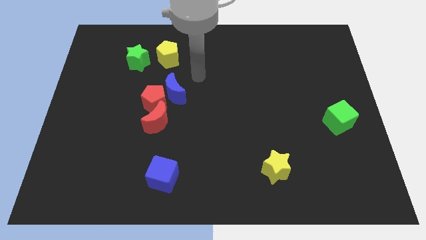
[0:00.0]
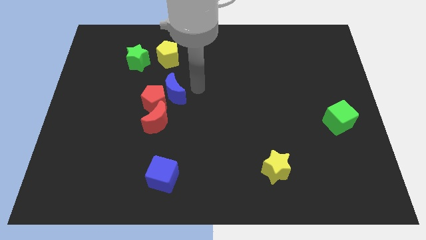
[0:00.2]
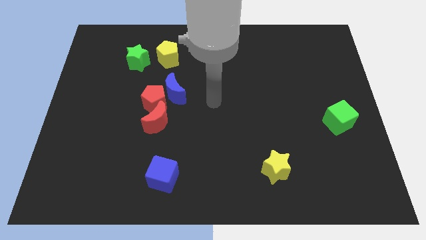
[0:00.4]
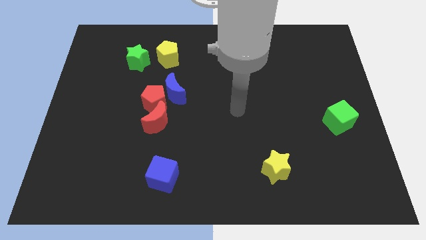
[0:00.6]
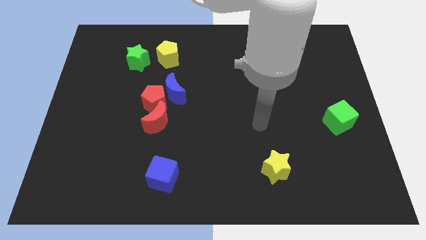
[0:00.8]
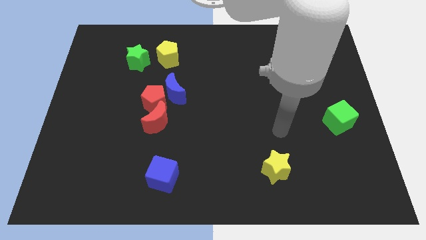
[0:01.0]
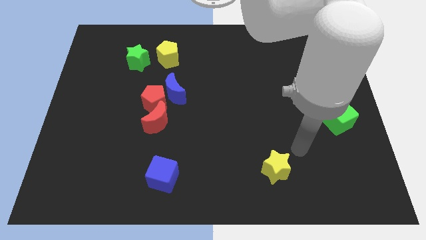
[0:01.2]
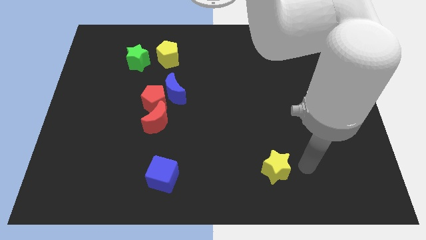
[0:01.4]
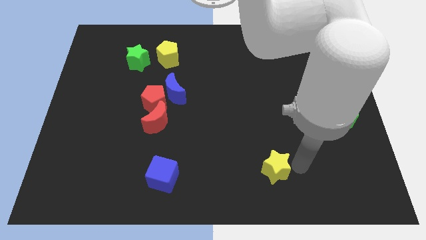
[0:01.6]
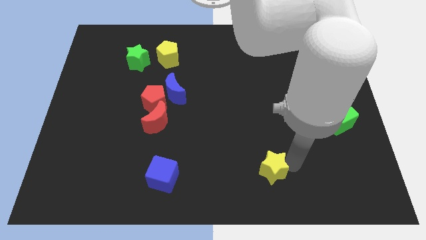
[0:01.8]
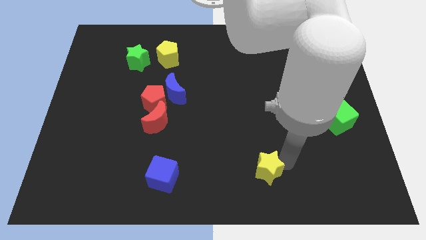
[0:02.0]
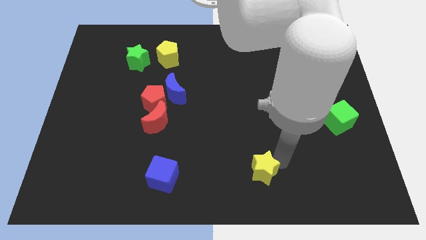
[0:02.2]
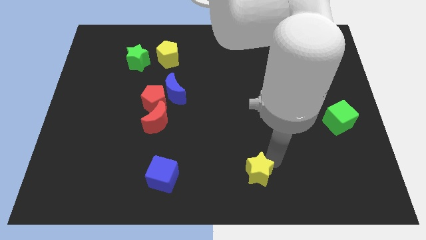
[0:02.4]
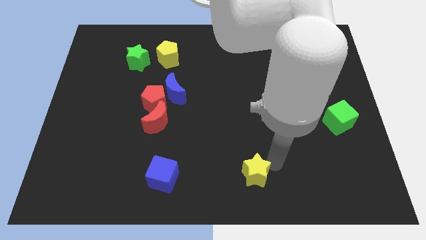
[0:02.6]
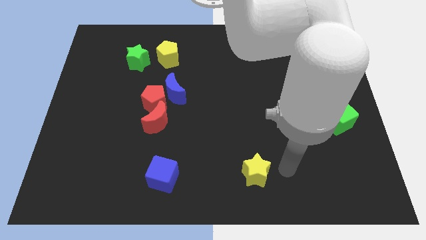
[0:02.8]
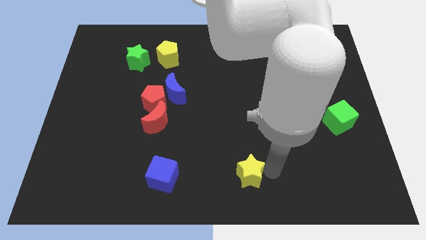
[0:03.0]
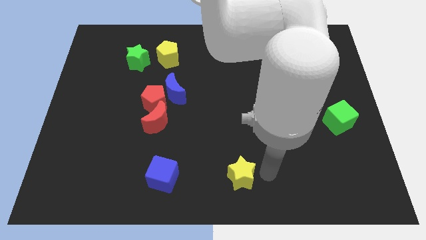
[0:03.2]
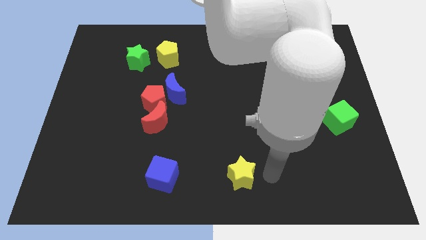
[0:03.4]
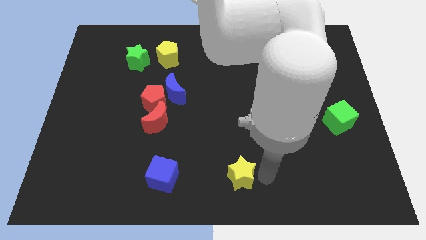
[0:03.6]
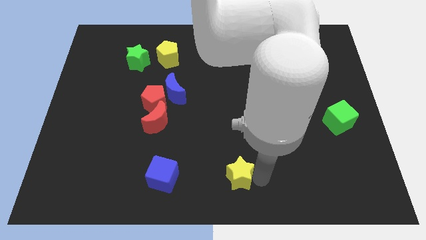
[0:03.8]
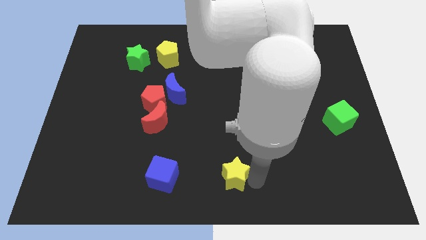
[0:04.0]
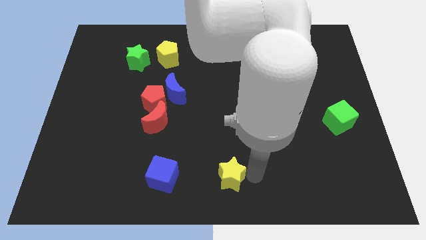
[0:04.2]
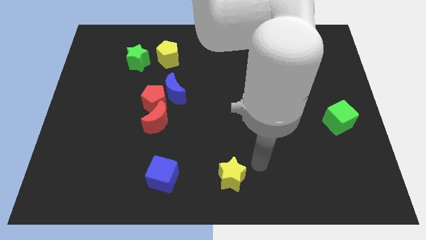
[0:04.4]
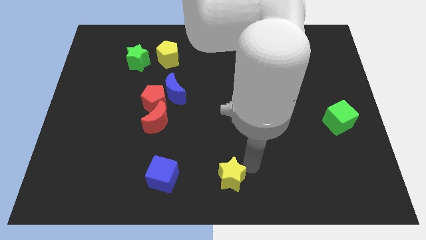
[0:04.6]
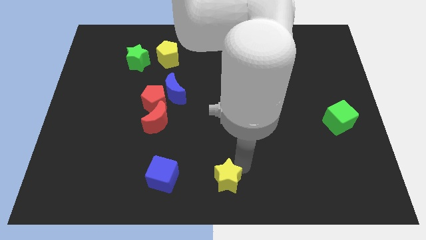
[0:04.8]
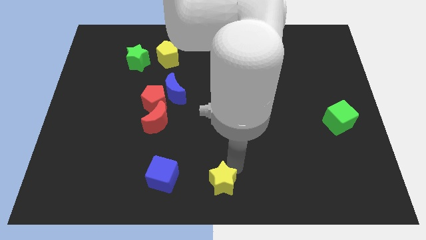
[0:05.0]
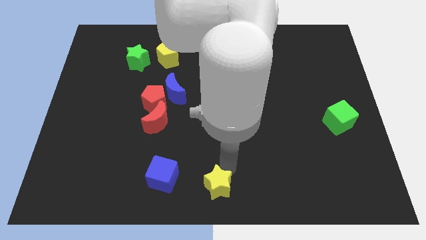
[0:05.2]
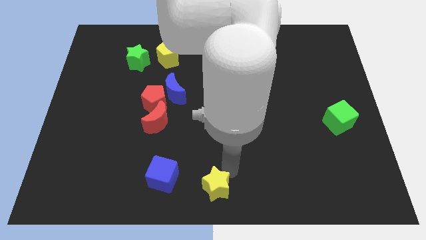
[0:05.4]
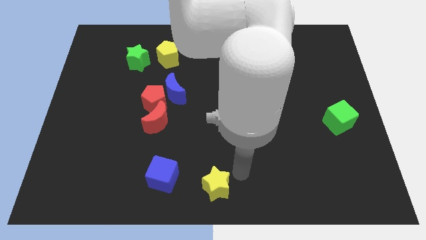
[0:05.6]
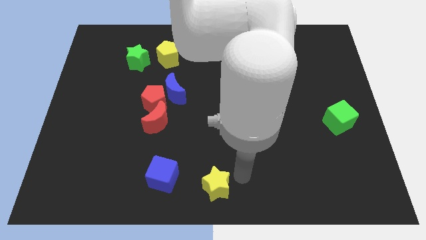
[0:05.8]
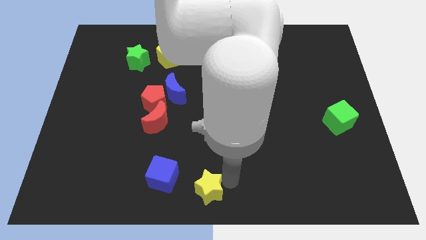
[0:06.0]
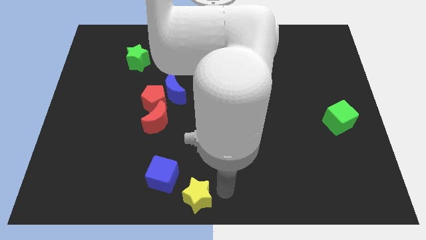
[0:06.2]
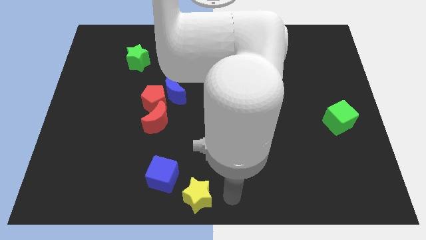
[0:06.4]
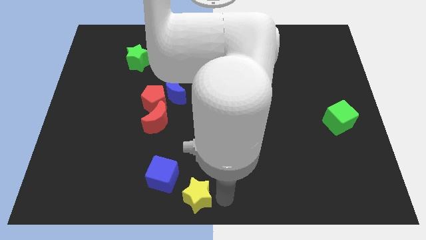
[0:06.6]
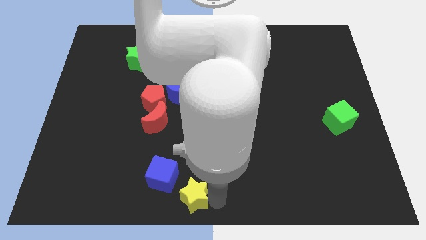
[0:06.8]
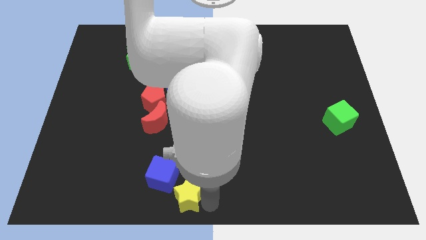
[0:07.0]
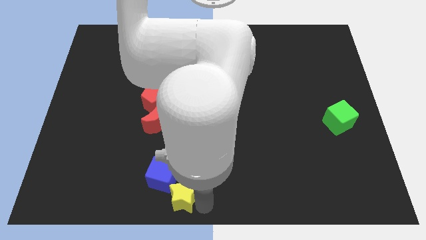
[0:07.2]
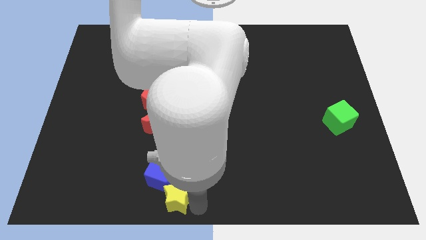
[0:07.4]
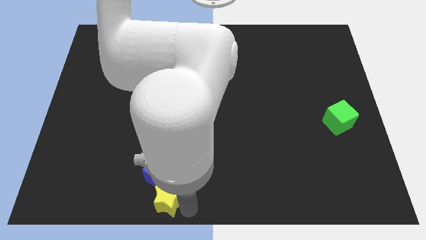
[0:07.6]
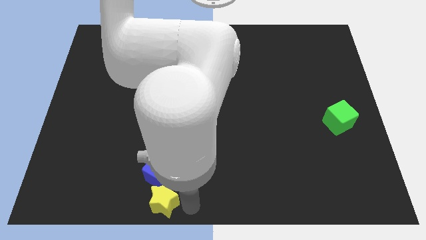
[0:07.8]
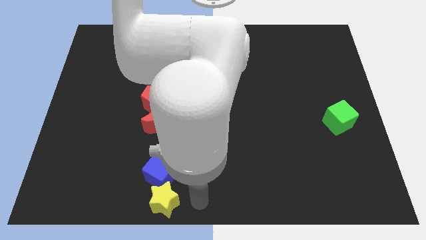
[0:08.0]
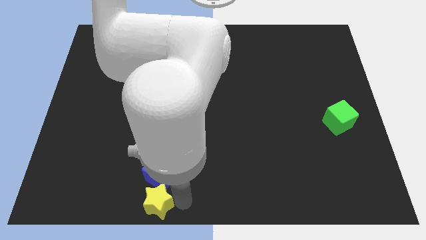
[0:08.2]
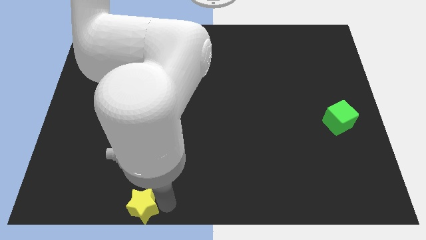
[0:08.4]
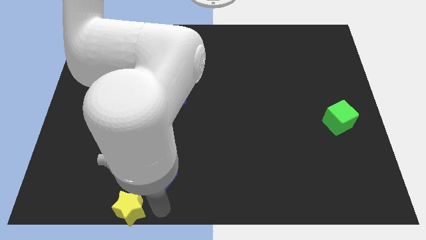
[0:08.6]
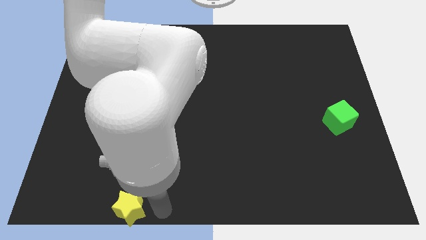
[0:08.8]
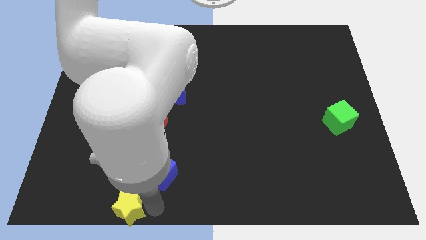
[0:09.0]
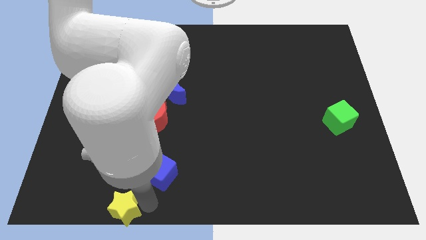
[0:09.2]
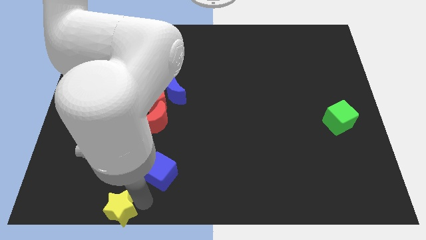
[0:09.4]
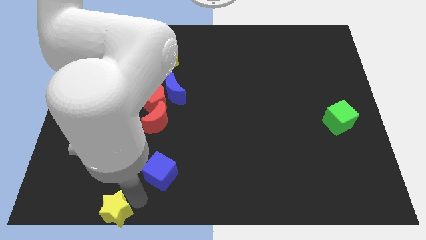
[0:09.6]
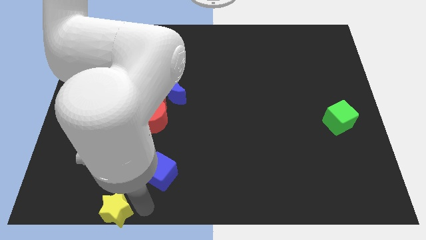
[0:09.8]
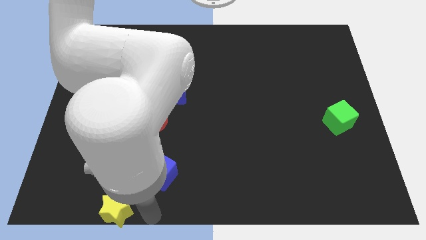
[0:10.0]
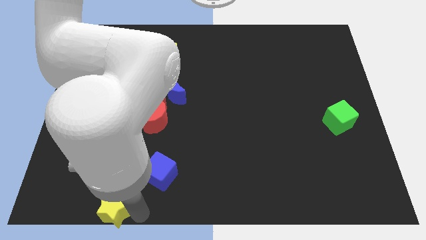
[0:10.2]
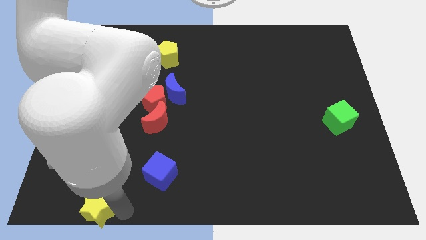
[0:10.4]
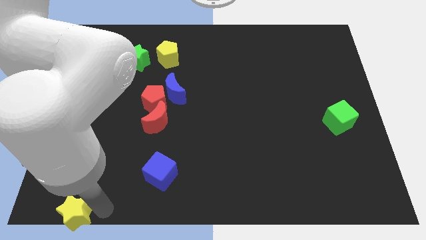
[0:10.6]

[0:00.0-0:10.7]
move the yellow star to the bottom left of the board

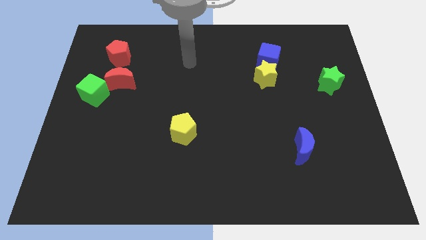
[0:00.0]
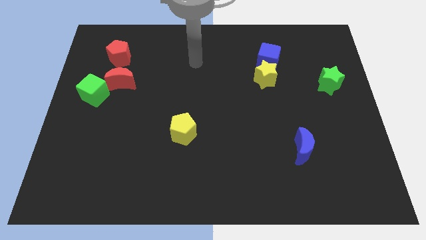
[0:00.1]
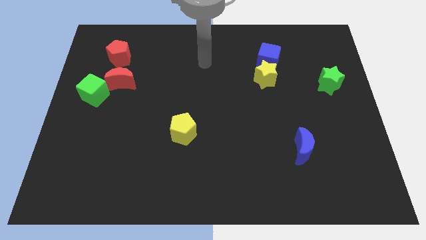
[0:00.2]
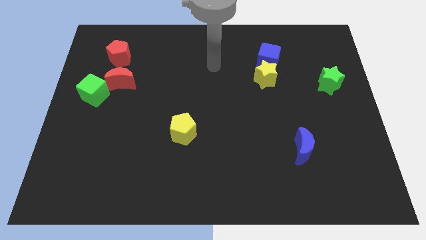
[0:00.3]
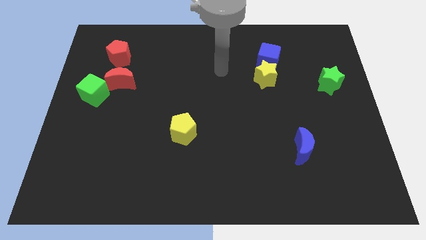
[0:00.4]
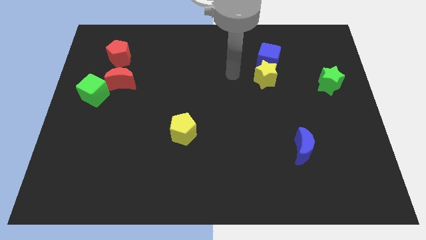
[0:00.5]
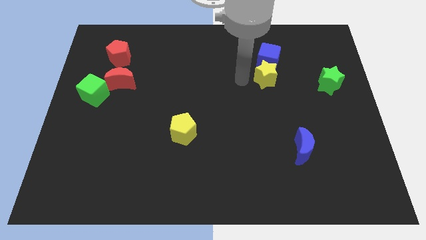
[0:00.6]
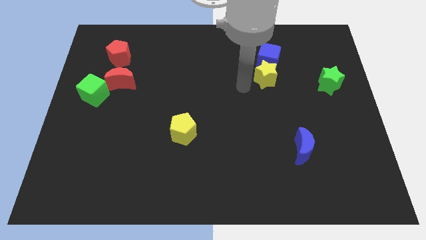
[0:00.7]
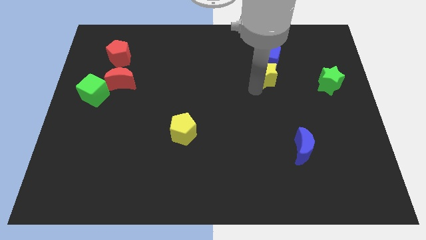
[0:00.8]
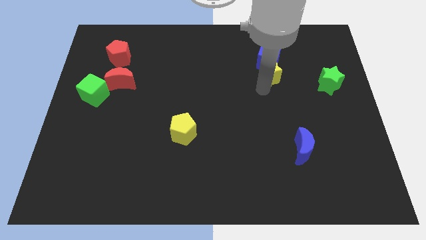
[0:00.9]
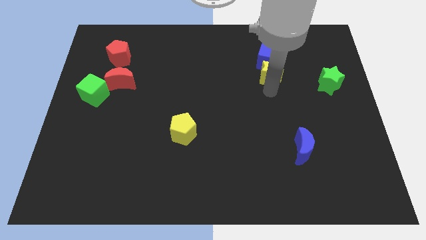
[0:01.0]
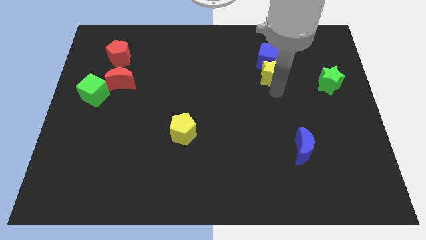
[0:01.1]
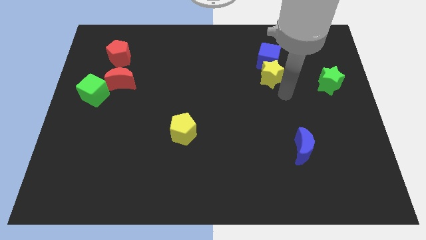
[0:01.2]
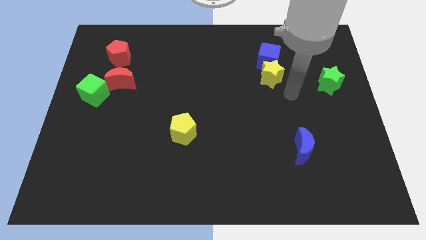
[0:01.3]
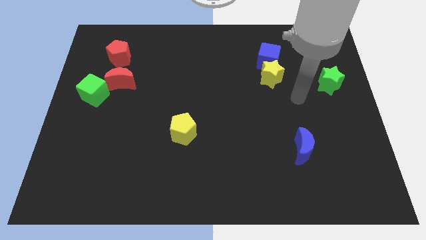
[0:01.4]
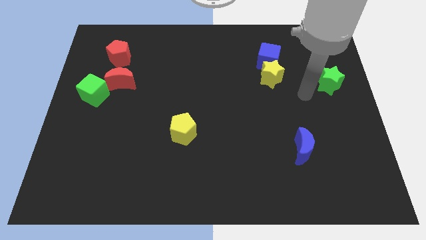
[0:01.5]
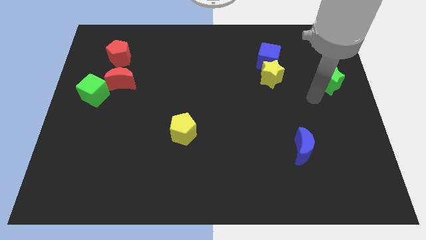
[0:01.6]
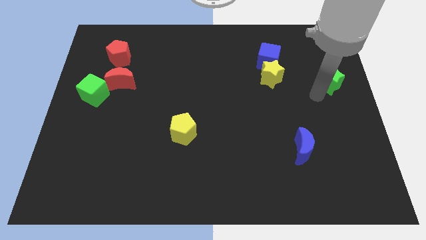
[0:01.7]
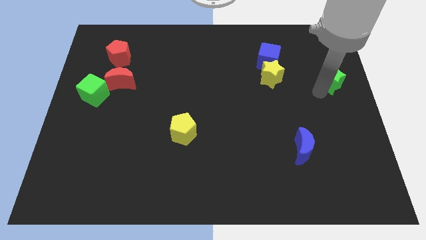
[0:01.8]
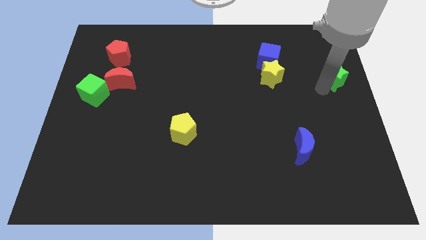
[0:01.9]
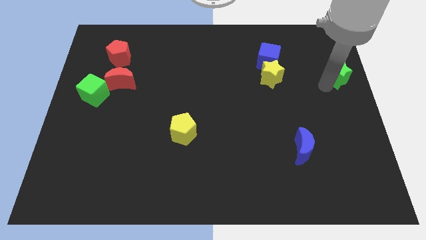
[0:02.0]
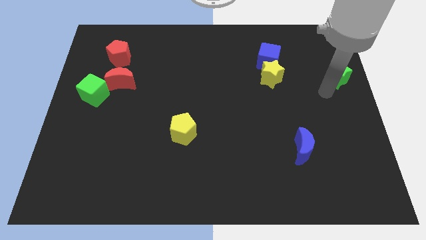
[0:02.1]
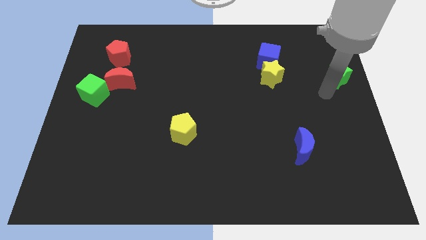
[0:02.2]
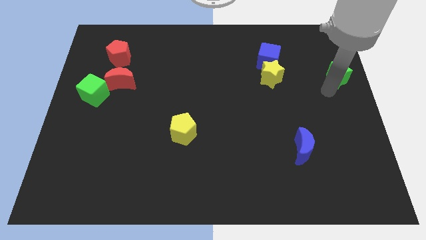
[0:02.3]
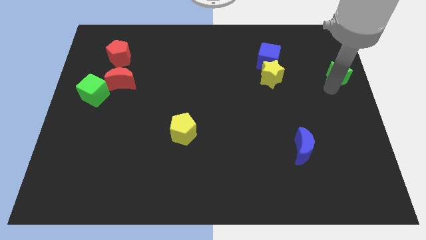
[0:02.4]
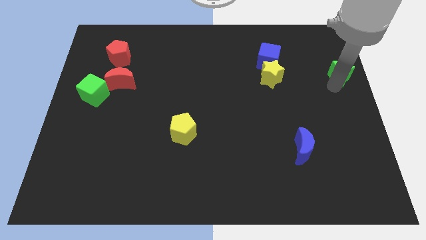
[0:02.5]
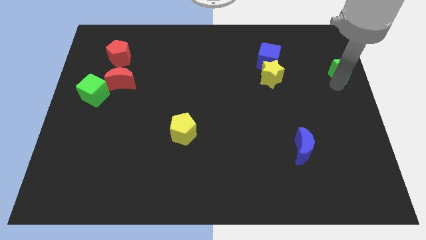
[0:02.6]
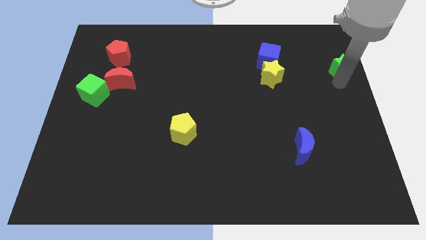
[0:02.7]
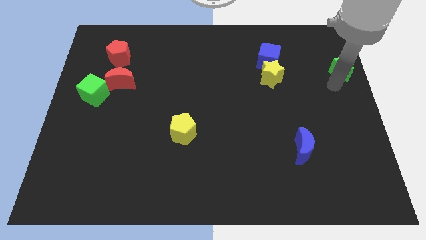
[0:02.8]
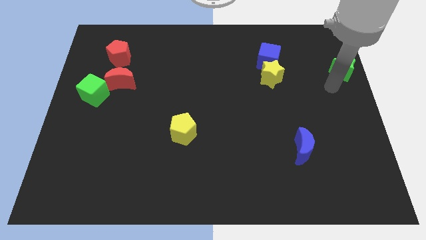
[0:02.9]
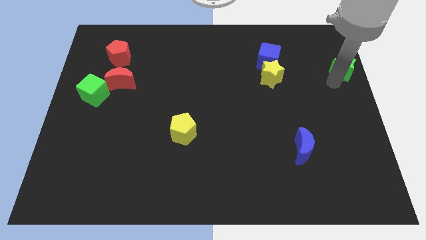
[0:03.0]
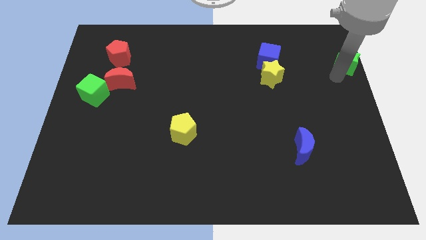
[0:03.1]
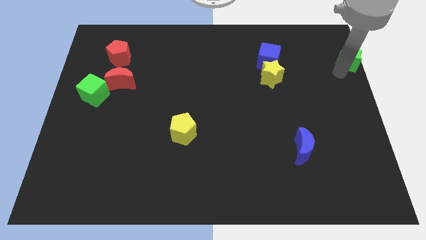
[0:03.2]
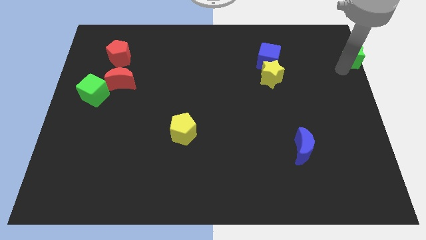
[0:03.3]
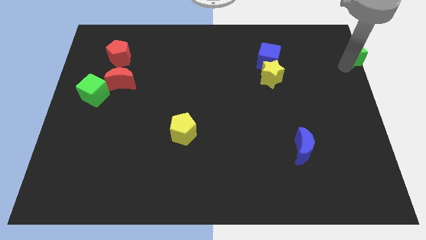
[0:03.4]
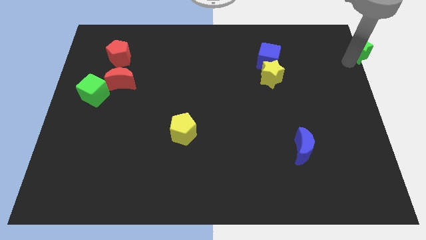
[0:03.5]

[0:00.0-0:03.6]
put the green star to the top right
